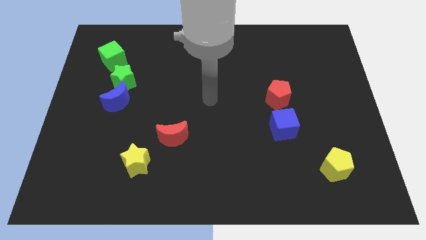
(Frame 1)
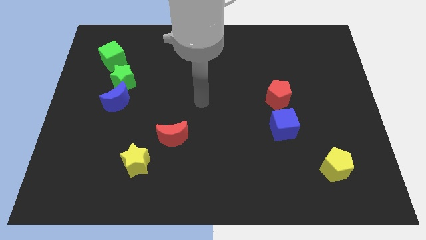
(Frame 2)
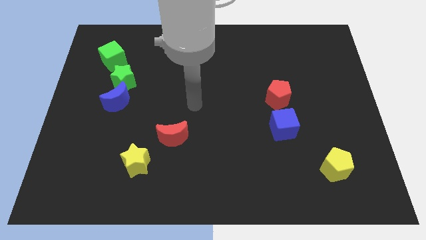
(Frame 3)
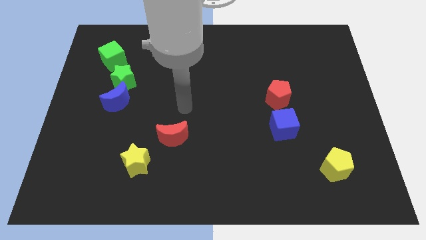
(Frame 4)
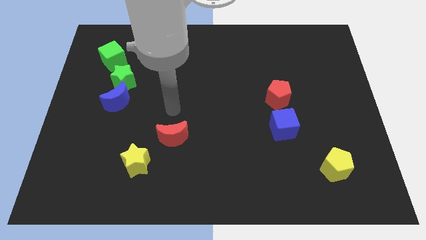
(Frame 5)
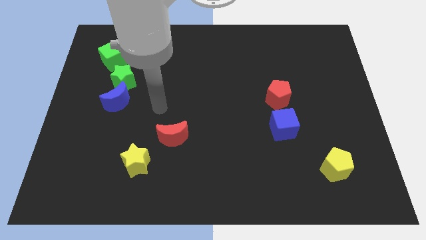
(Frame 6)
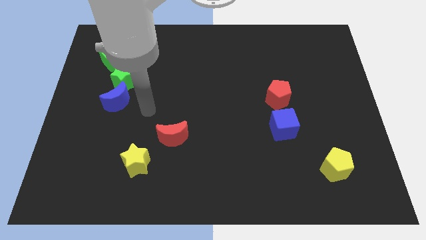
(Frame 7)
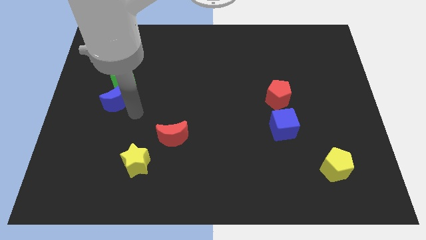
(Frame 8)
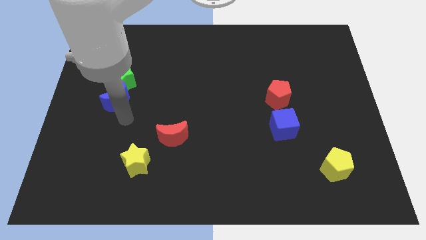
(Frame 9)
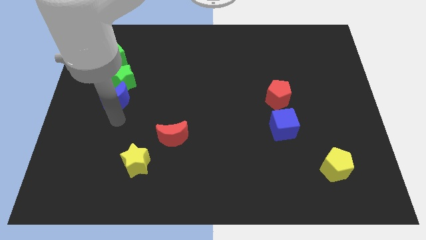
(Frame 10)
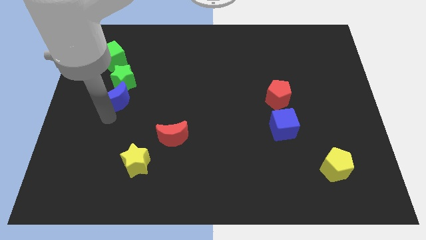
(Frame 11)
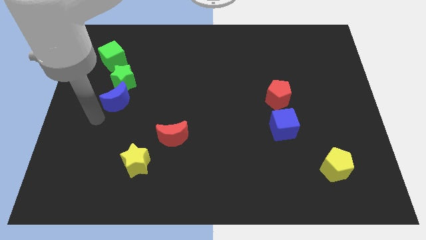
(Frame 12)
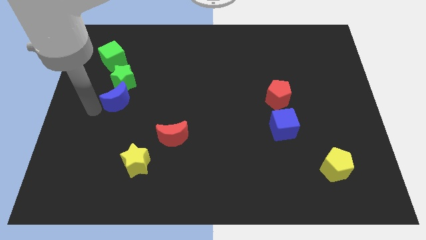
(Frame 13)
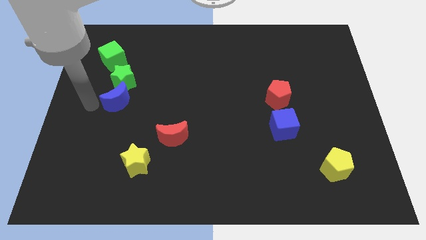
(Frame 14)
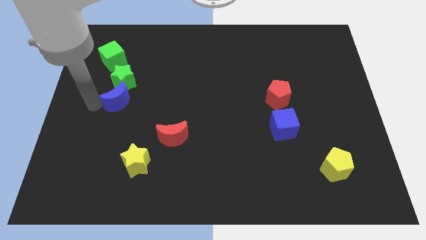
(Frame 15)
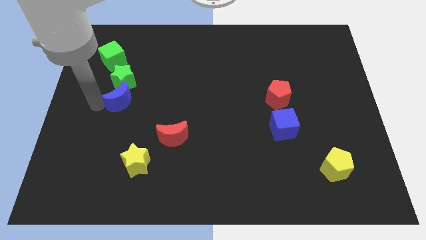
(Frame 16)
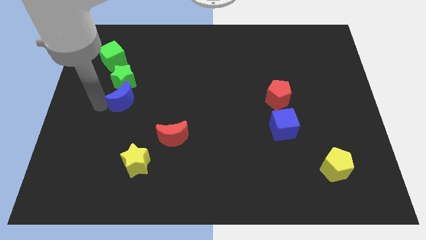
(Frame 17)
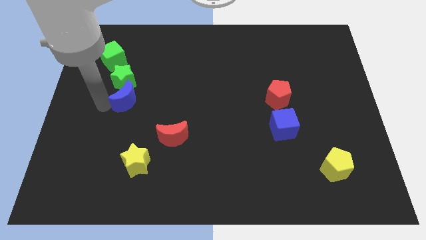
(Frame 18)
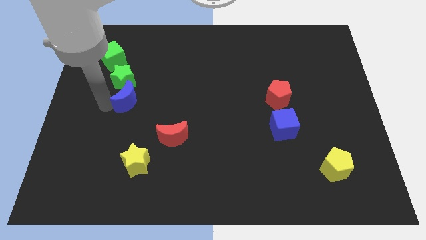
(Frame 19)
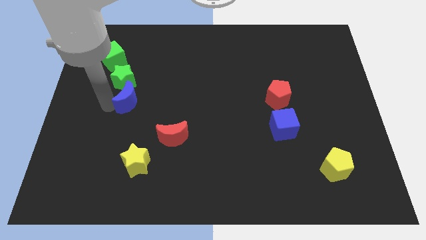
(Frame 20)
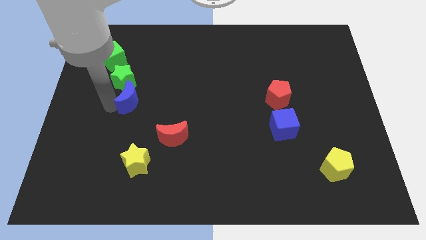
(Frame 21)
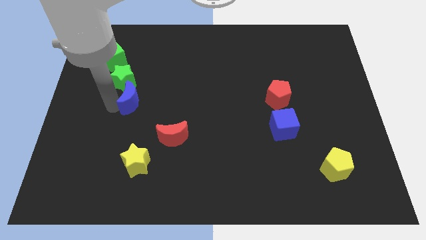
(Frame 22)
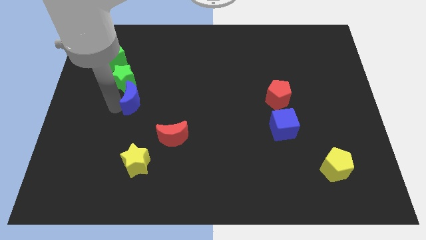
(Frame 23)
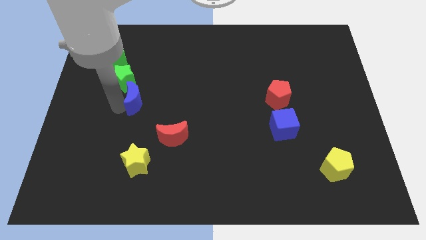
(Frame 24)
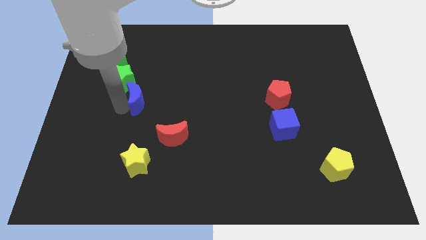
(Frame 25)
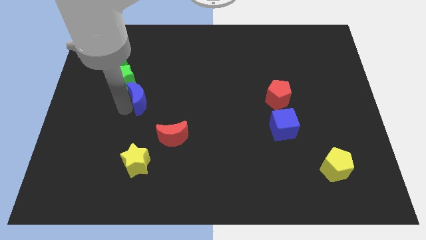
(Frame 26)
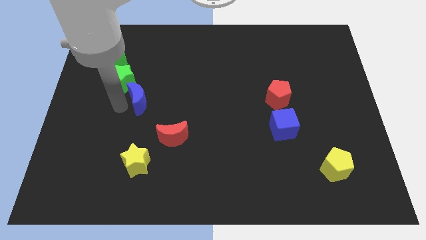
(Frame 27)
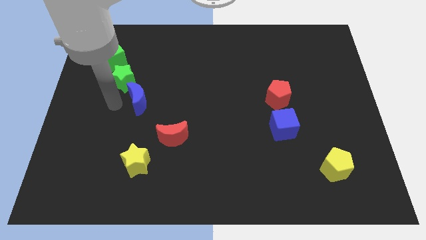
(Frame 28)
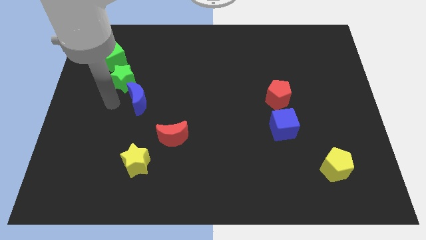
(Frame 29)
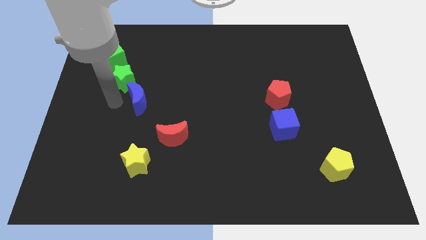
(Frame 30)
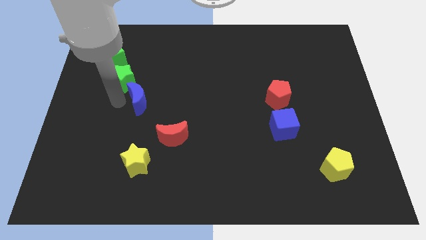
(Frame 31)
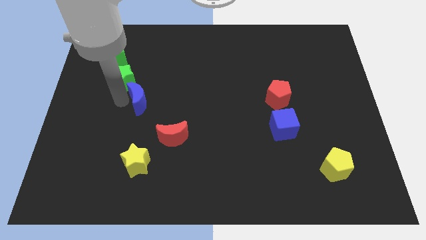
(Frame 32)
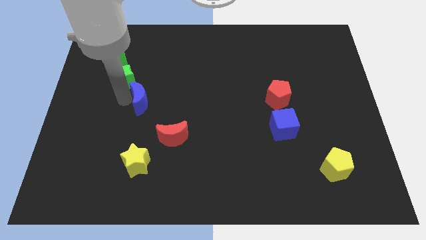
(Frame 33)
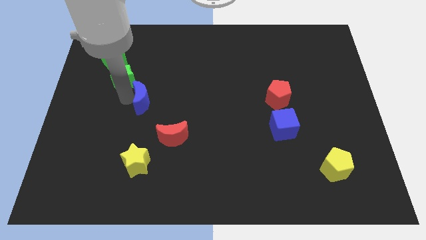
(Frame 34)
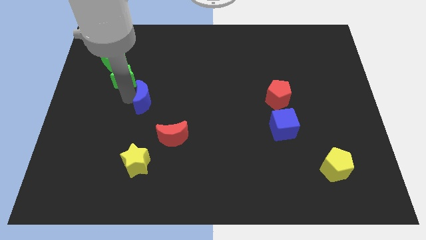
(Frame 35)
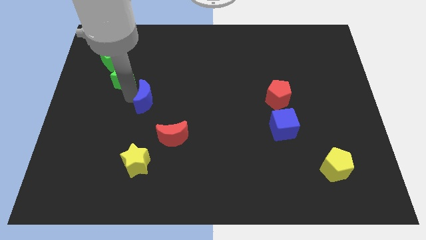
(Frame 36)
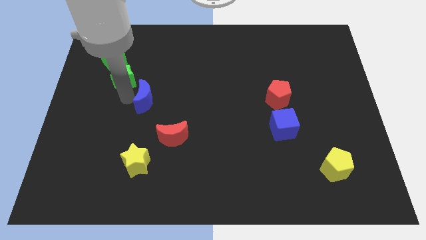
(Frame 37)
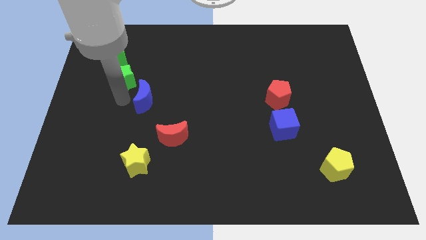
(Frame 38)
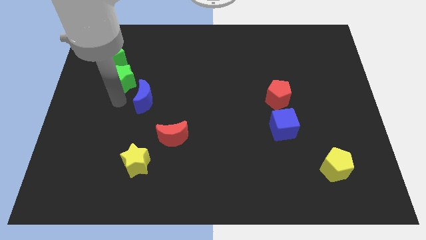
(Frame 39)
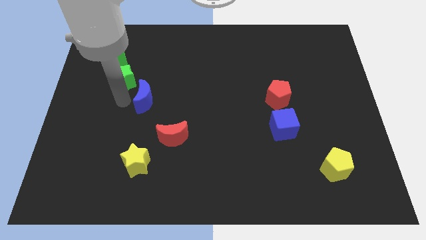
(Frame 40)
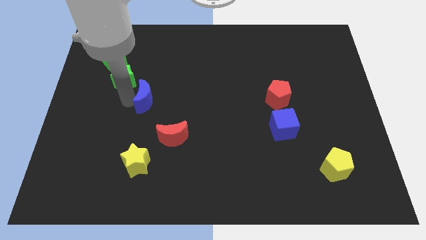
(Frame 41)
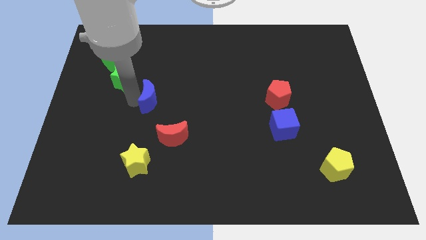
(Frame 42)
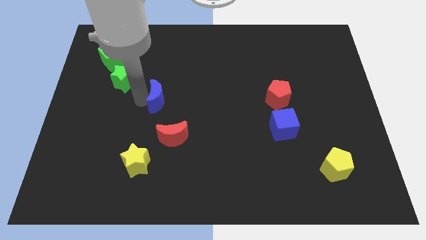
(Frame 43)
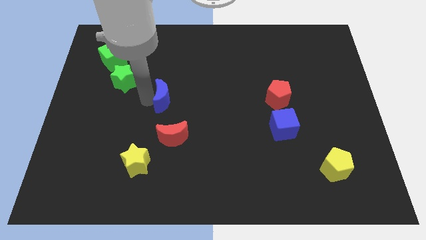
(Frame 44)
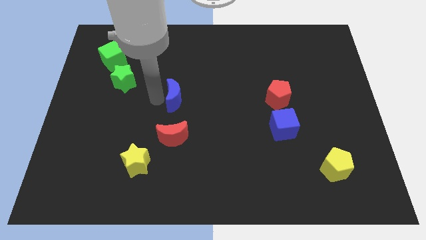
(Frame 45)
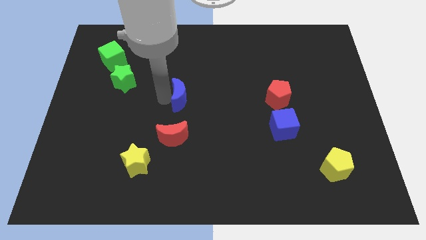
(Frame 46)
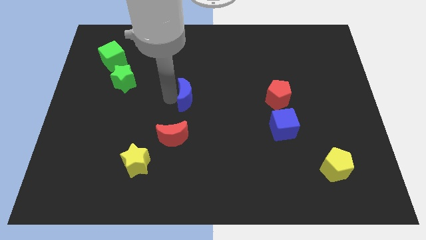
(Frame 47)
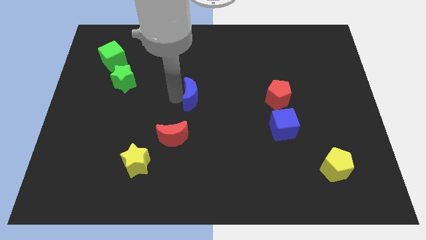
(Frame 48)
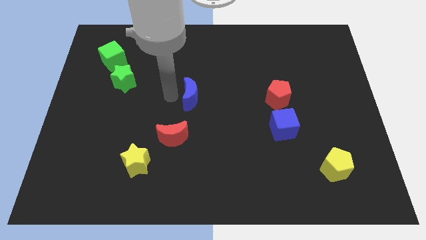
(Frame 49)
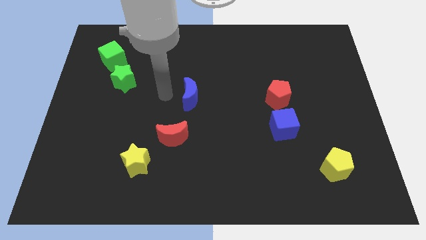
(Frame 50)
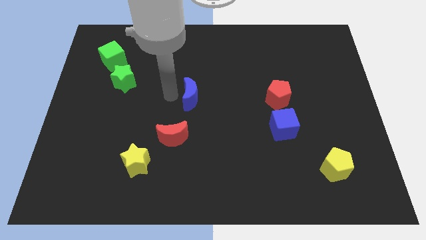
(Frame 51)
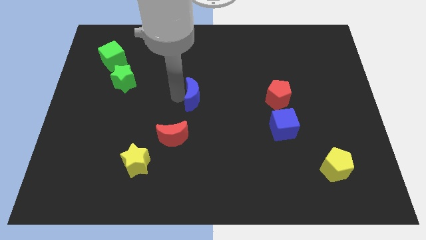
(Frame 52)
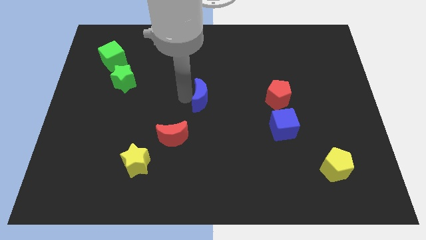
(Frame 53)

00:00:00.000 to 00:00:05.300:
move the blue moon to the right

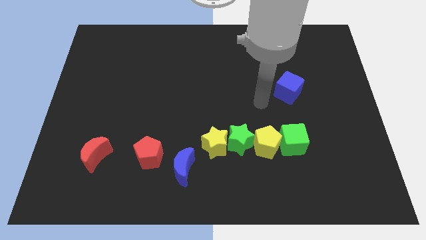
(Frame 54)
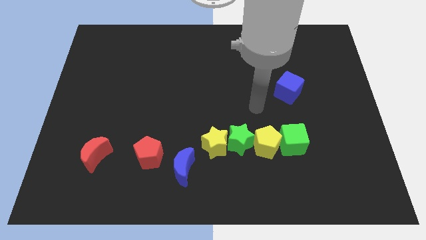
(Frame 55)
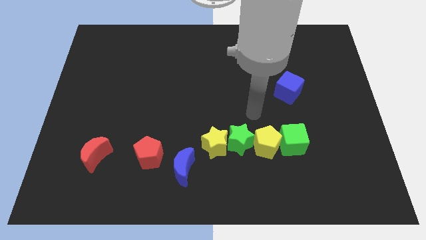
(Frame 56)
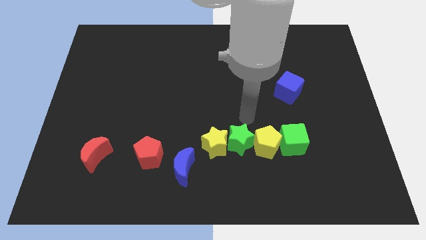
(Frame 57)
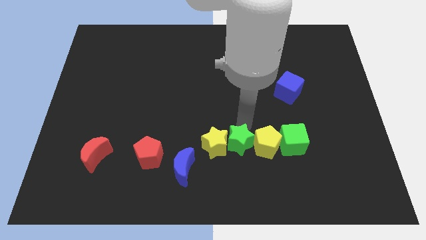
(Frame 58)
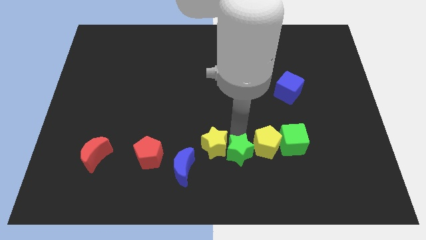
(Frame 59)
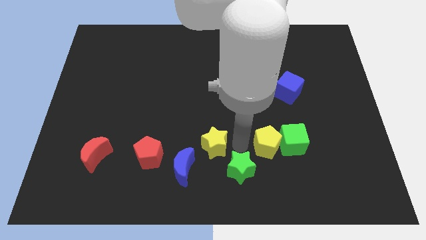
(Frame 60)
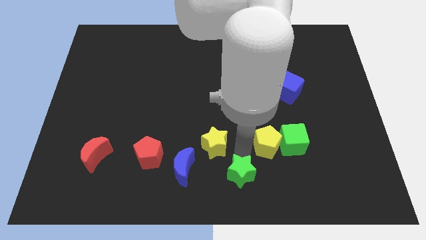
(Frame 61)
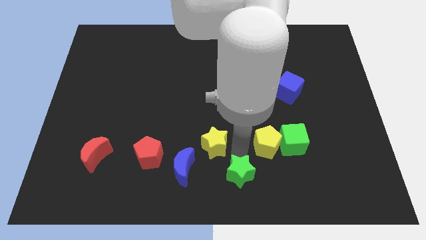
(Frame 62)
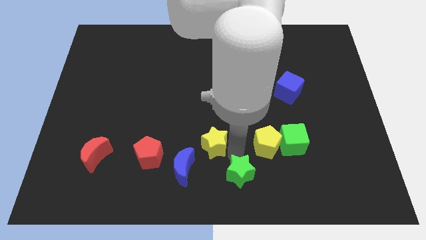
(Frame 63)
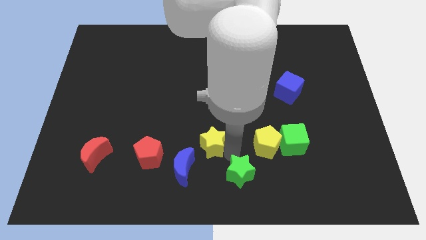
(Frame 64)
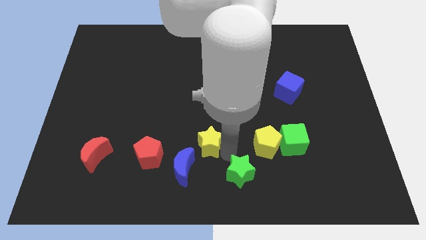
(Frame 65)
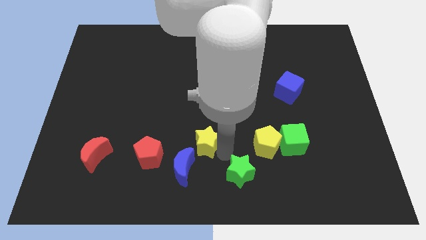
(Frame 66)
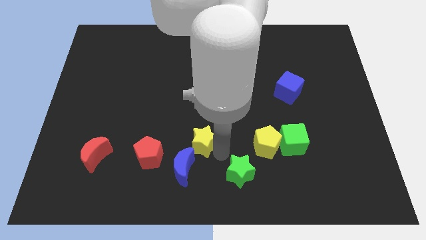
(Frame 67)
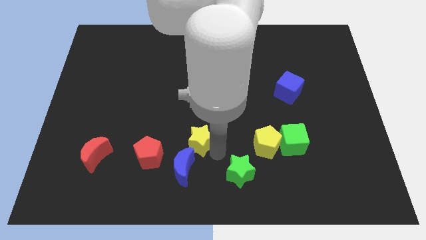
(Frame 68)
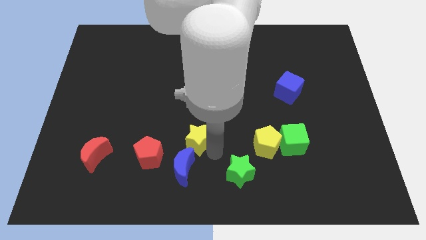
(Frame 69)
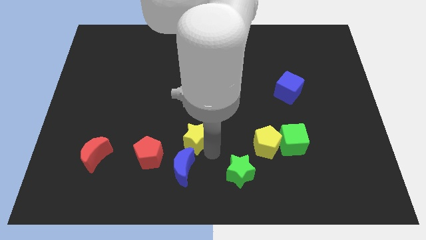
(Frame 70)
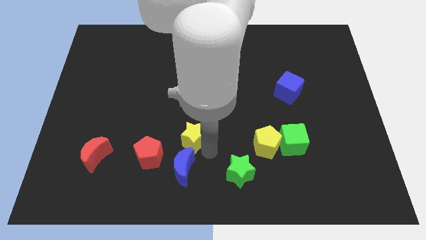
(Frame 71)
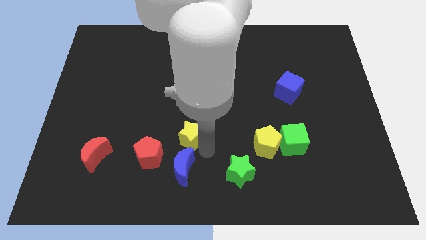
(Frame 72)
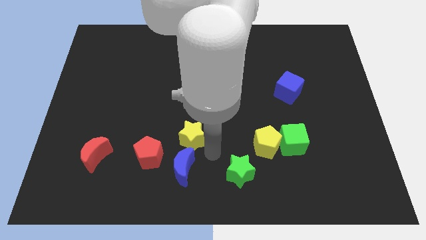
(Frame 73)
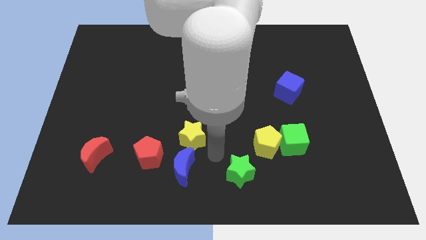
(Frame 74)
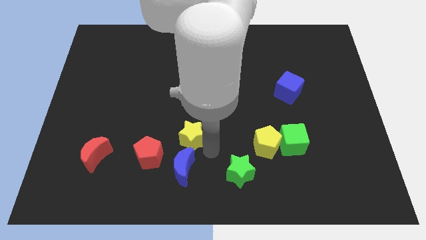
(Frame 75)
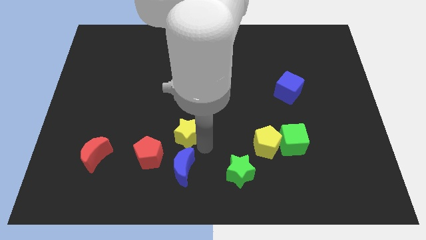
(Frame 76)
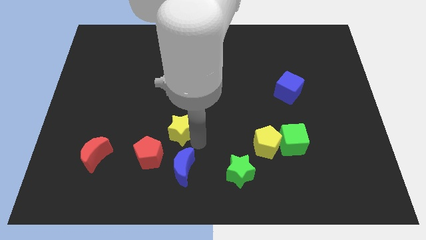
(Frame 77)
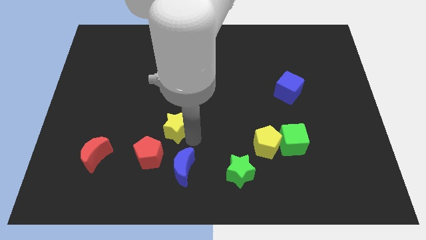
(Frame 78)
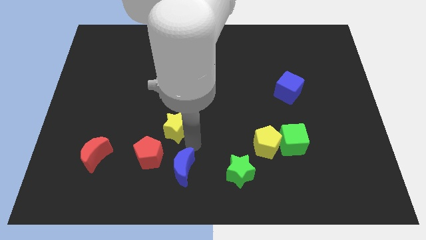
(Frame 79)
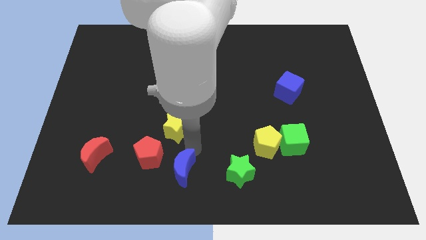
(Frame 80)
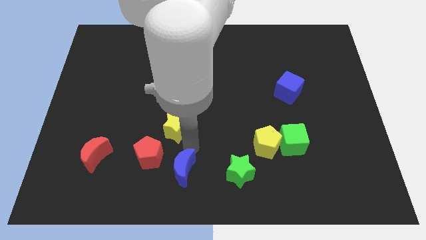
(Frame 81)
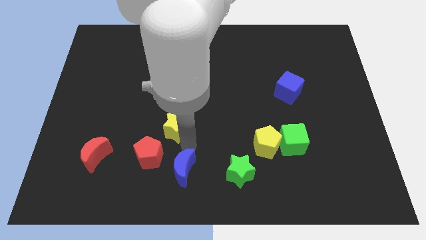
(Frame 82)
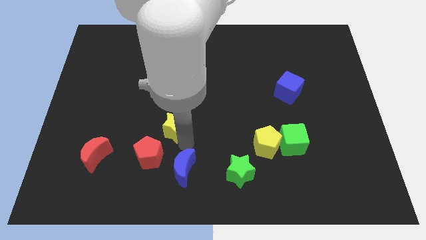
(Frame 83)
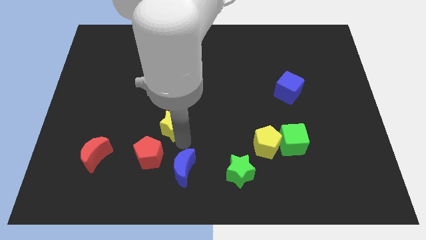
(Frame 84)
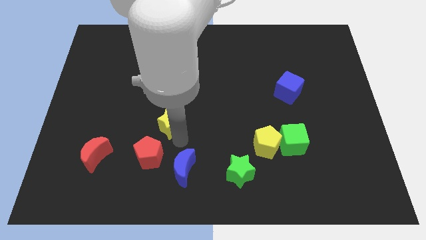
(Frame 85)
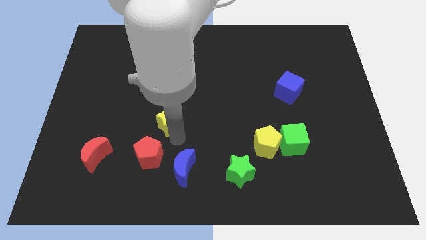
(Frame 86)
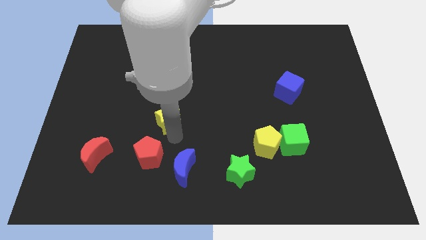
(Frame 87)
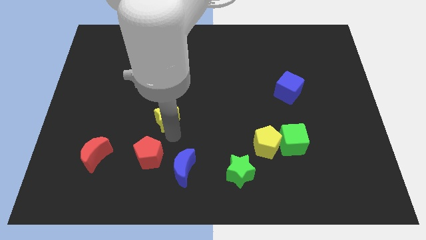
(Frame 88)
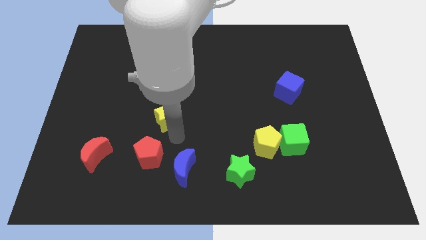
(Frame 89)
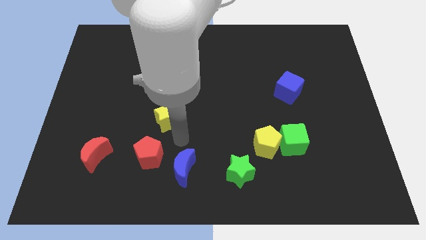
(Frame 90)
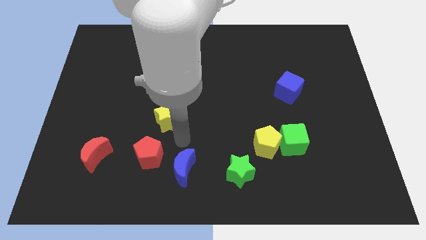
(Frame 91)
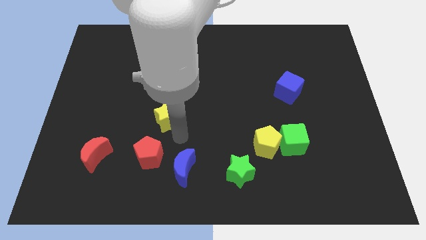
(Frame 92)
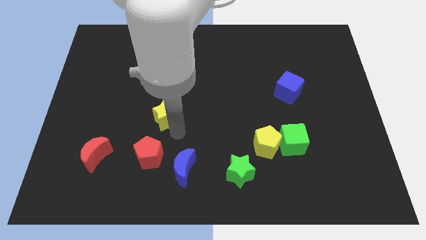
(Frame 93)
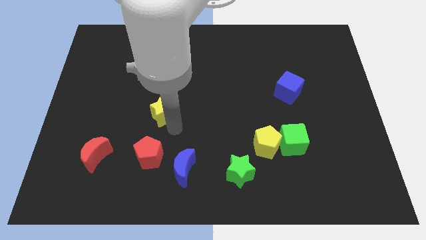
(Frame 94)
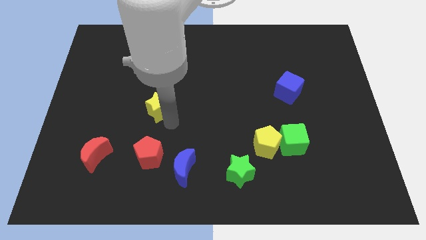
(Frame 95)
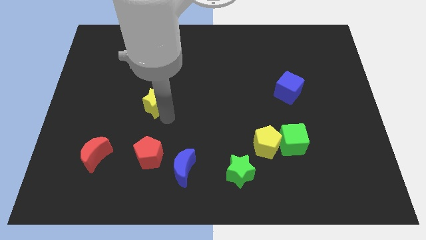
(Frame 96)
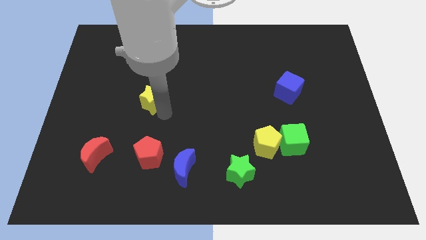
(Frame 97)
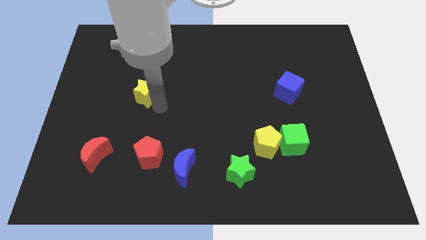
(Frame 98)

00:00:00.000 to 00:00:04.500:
move the yellow star upwards and left
